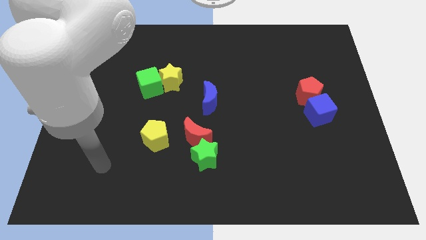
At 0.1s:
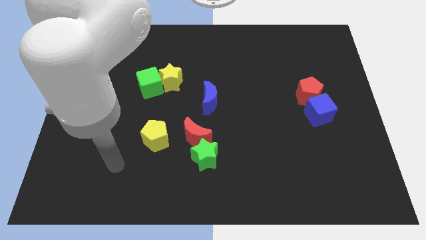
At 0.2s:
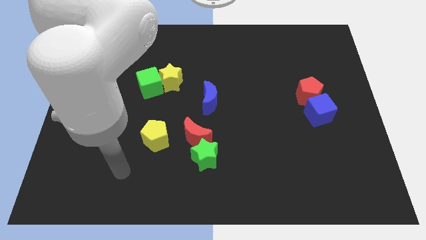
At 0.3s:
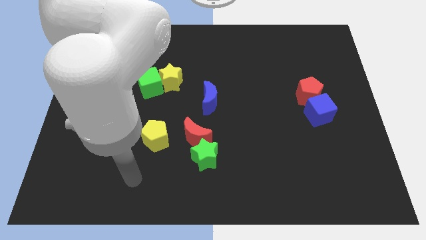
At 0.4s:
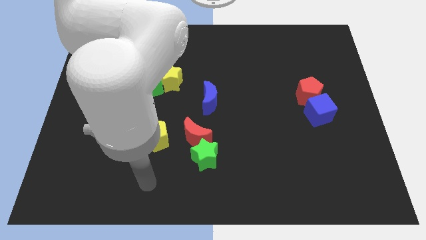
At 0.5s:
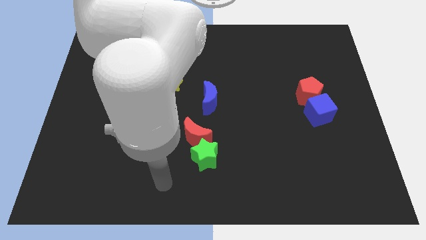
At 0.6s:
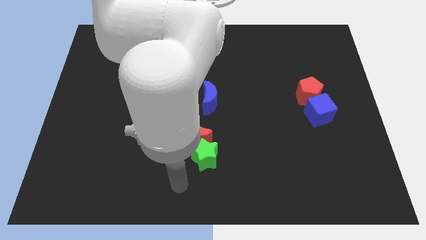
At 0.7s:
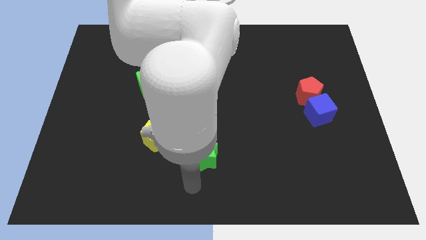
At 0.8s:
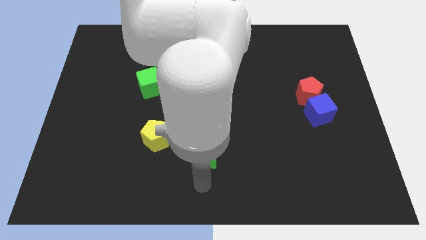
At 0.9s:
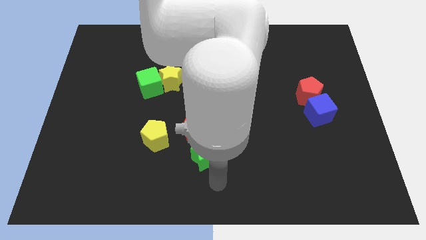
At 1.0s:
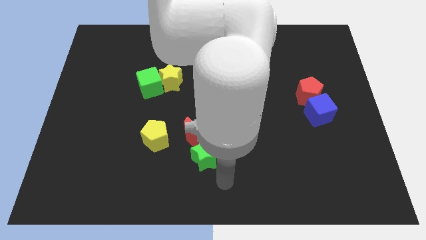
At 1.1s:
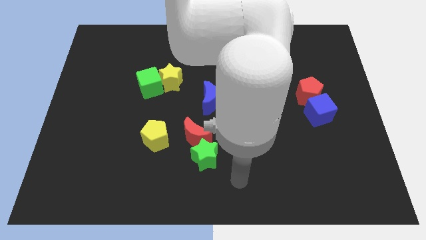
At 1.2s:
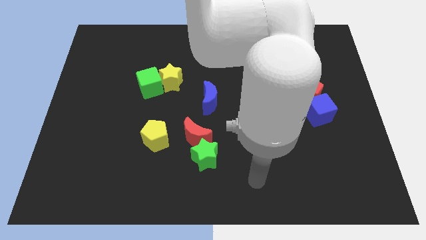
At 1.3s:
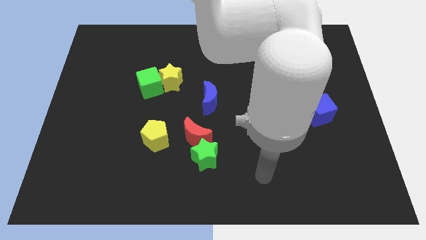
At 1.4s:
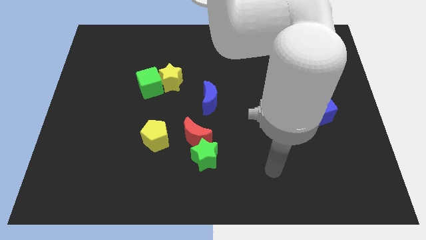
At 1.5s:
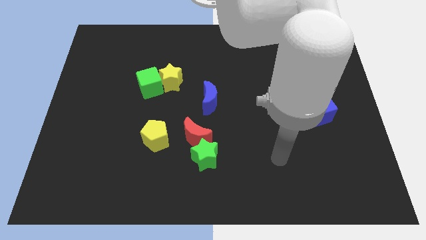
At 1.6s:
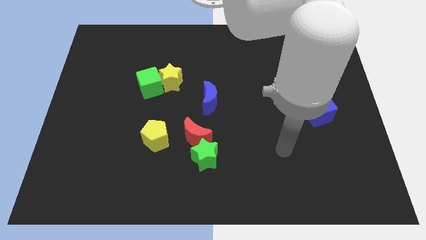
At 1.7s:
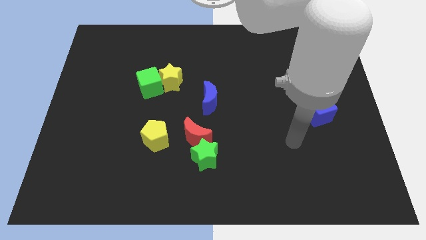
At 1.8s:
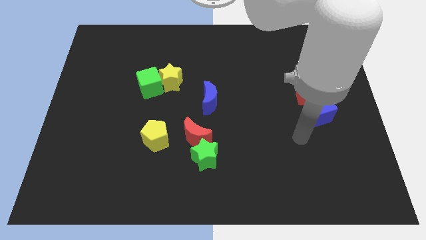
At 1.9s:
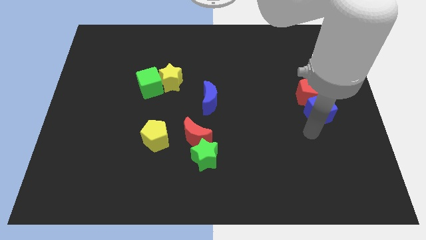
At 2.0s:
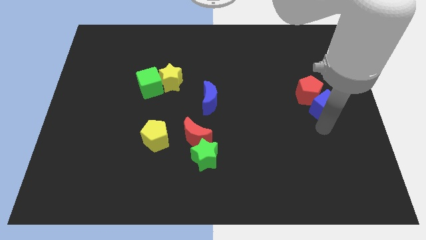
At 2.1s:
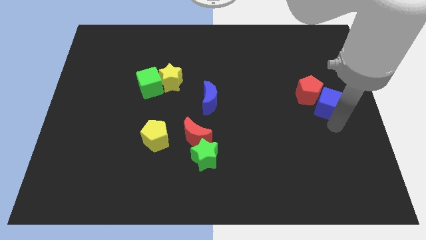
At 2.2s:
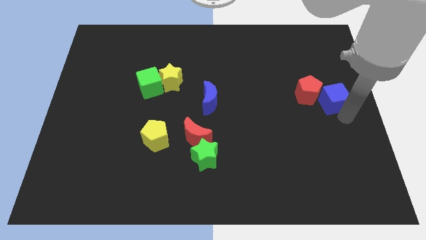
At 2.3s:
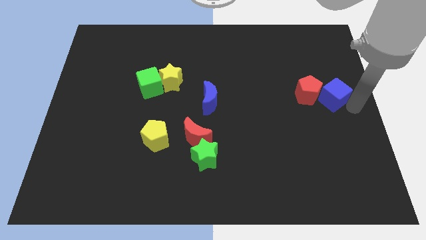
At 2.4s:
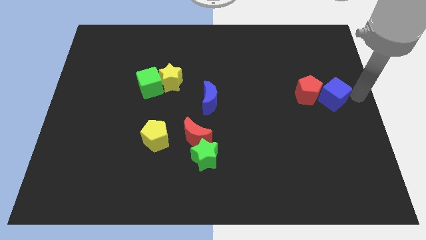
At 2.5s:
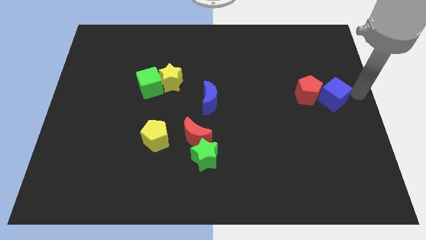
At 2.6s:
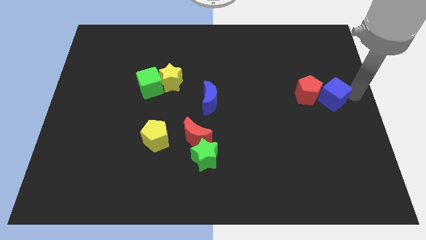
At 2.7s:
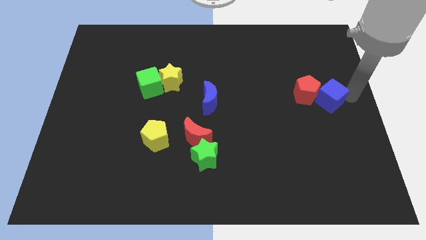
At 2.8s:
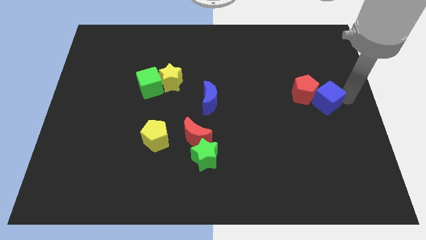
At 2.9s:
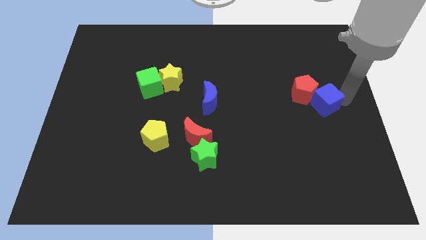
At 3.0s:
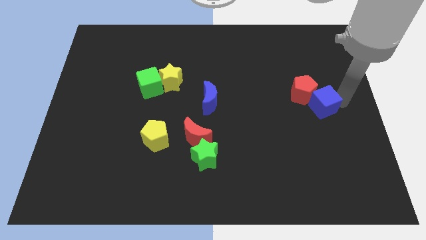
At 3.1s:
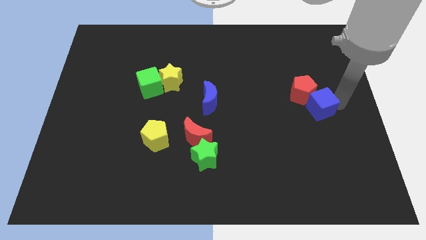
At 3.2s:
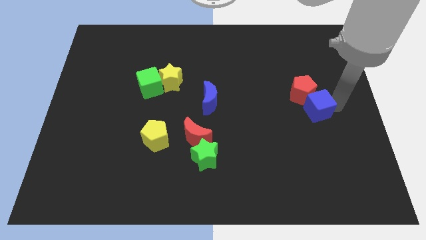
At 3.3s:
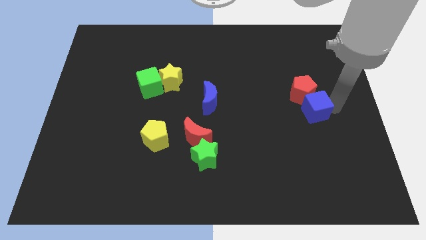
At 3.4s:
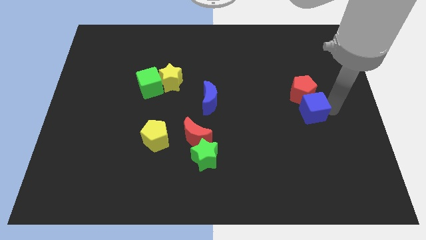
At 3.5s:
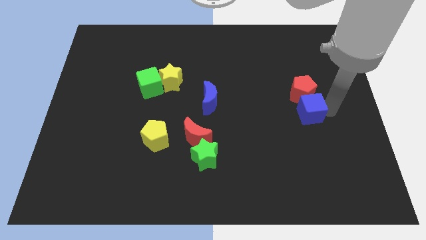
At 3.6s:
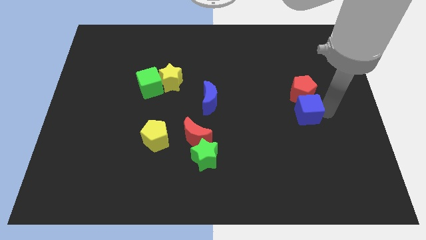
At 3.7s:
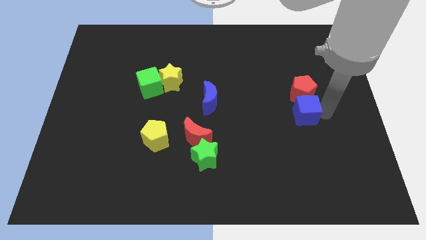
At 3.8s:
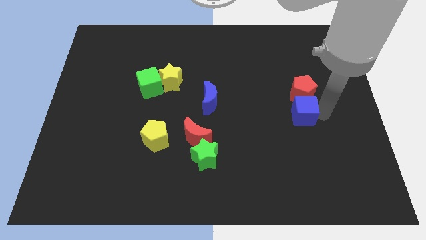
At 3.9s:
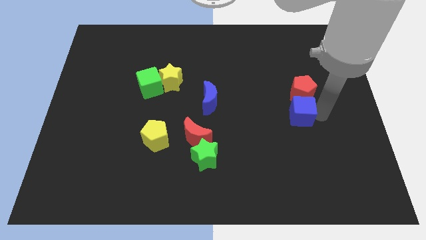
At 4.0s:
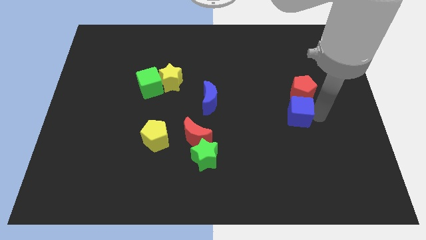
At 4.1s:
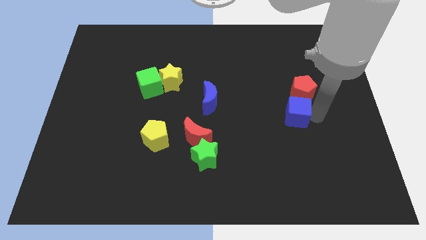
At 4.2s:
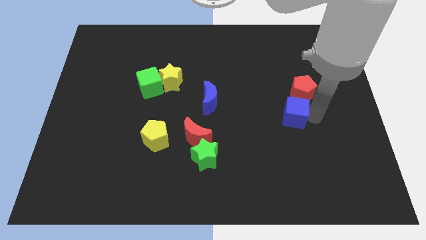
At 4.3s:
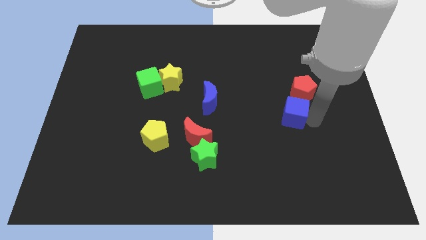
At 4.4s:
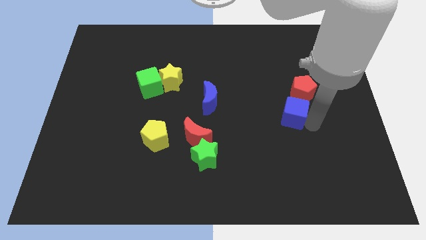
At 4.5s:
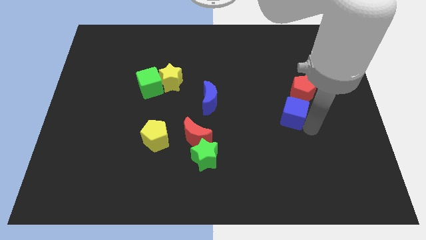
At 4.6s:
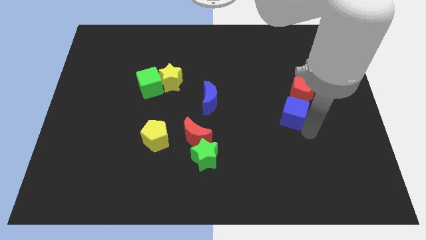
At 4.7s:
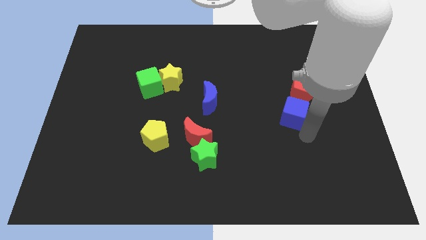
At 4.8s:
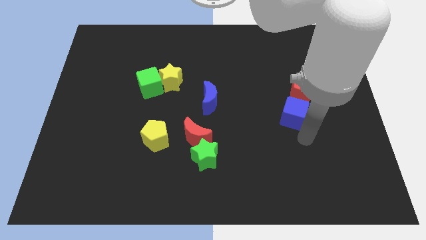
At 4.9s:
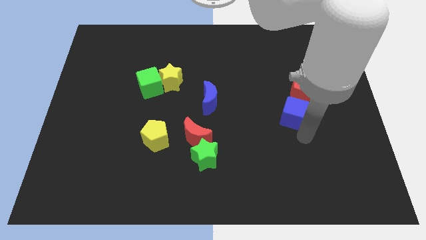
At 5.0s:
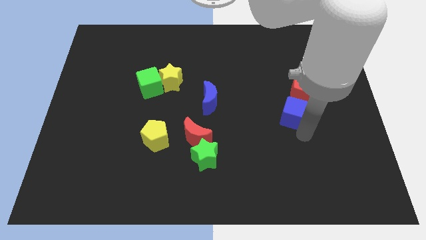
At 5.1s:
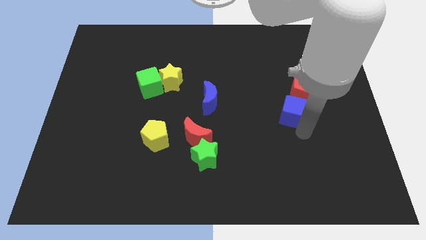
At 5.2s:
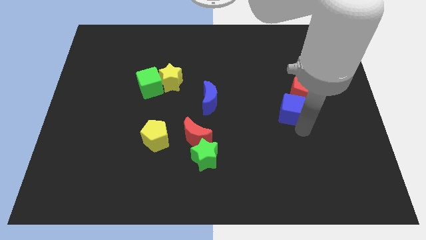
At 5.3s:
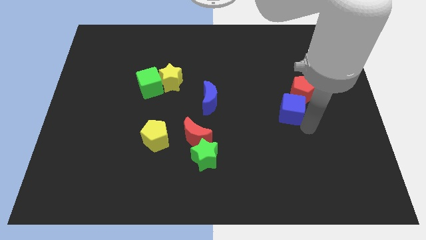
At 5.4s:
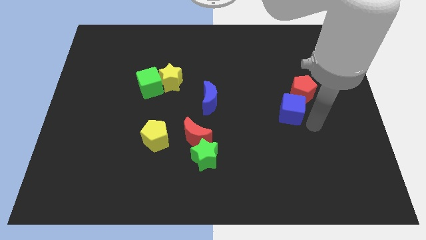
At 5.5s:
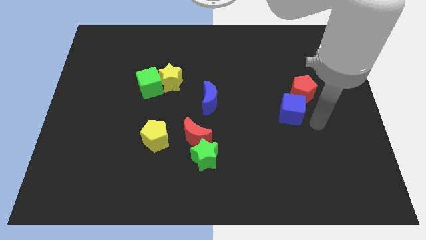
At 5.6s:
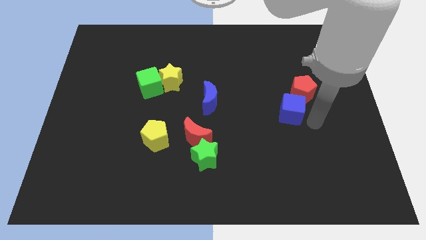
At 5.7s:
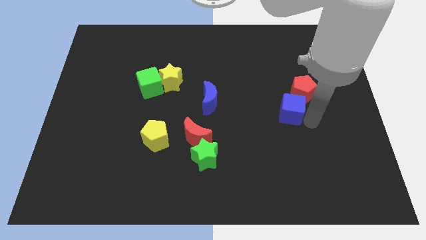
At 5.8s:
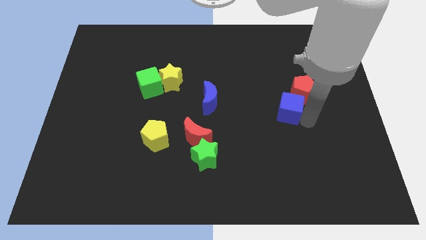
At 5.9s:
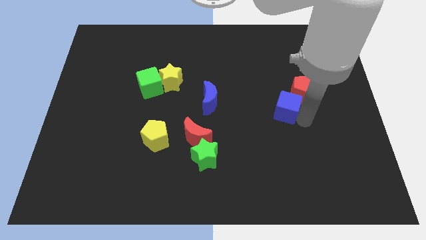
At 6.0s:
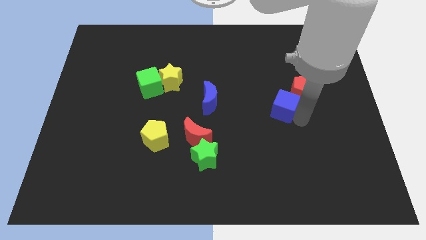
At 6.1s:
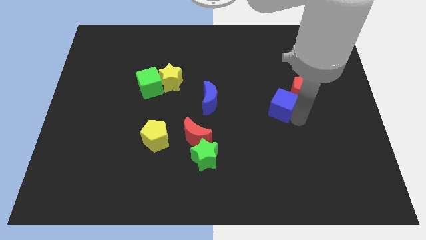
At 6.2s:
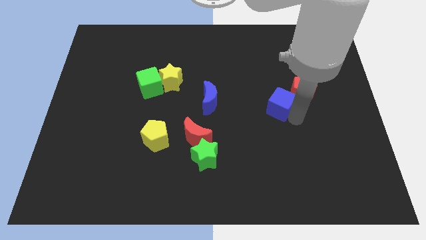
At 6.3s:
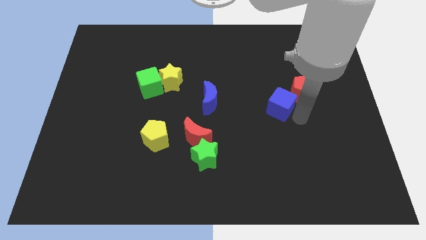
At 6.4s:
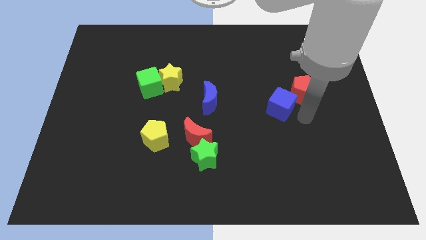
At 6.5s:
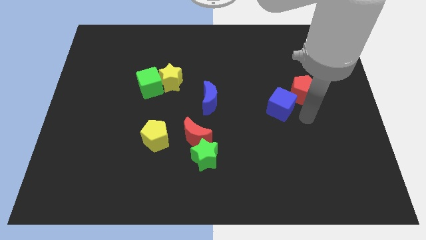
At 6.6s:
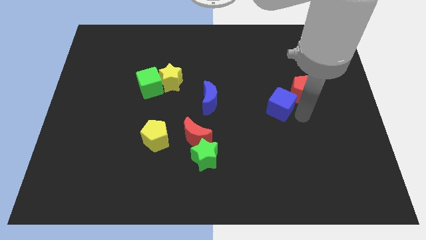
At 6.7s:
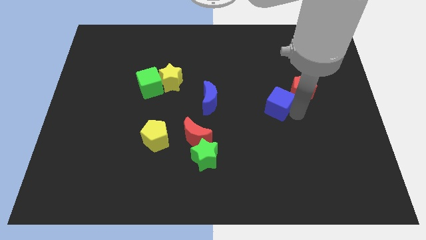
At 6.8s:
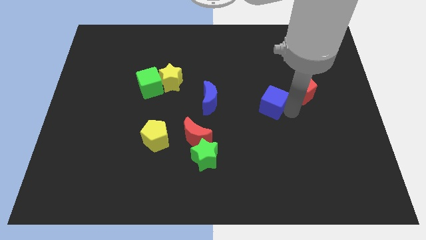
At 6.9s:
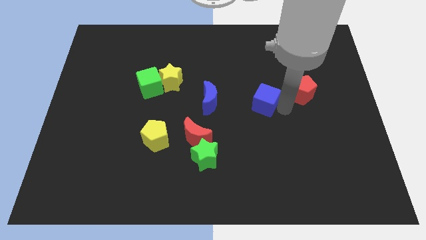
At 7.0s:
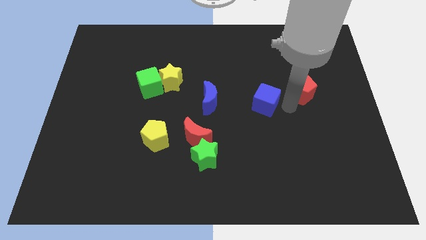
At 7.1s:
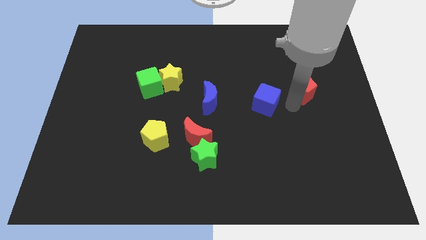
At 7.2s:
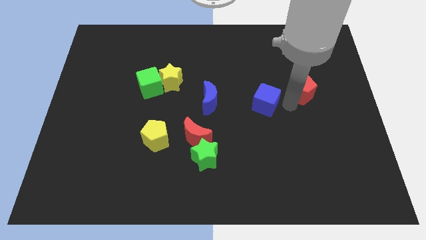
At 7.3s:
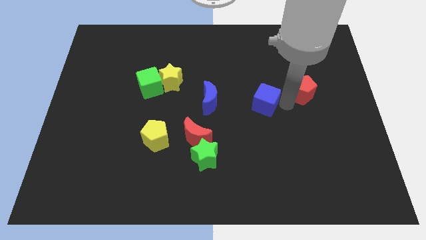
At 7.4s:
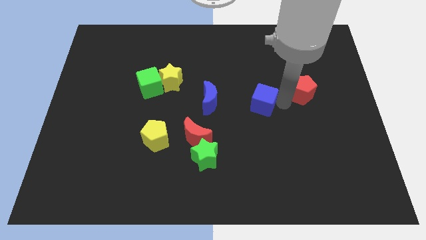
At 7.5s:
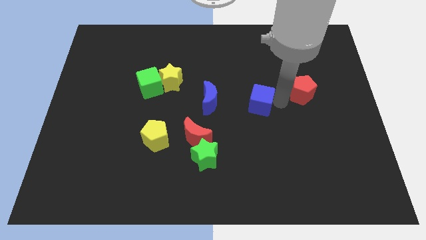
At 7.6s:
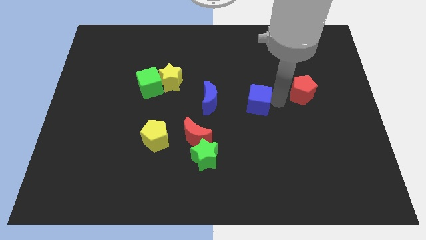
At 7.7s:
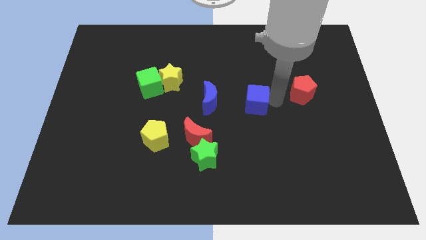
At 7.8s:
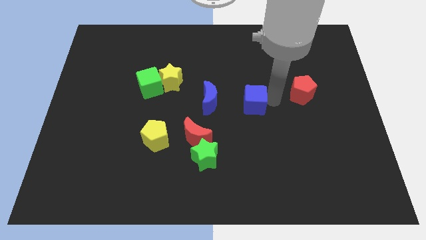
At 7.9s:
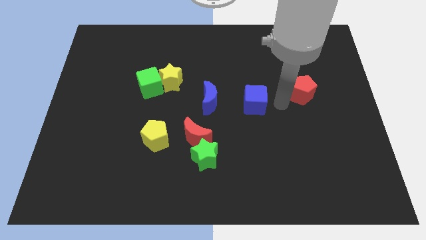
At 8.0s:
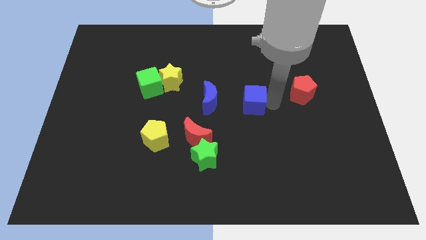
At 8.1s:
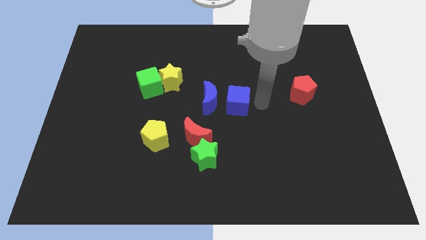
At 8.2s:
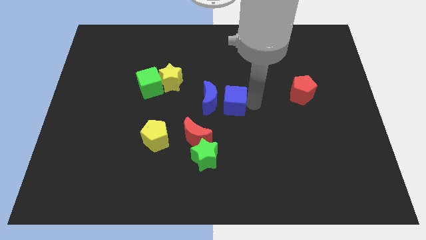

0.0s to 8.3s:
put the blue cube close to the blue moon
